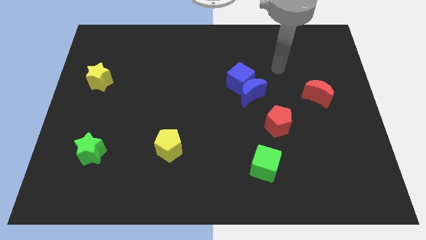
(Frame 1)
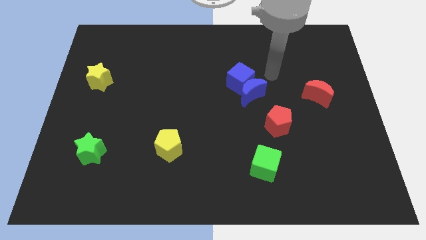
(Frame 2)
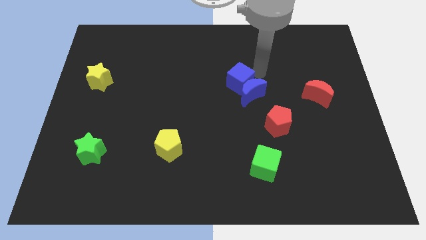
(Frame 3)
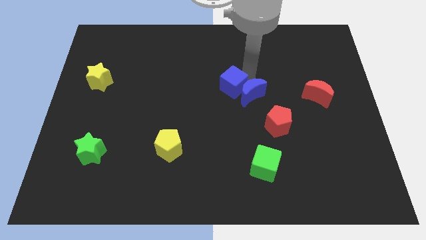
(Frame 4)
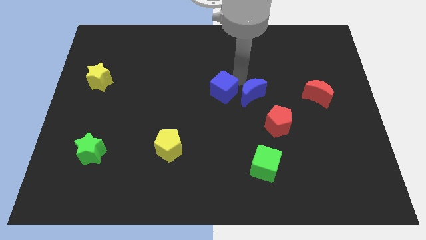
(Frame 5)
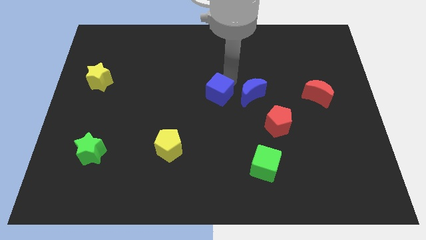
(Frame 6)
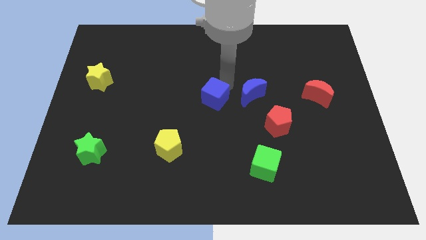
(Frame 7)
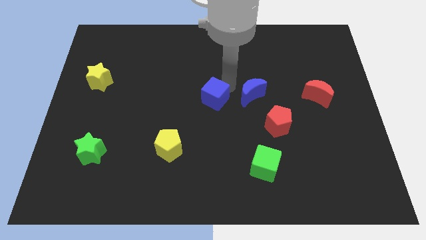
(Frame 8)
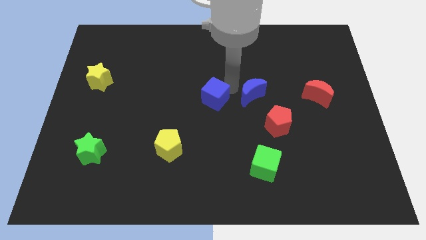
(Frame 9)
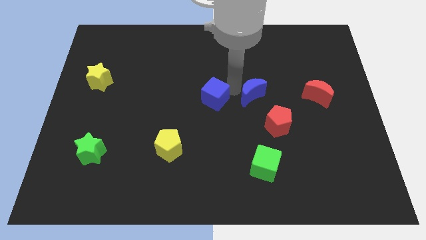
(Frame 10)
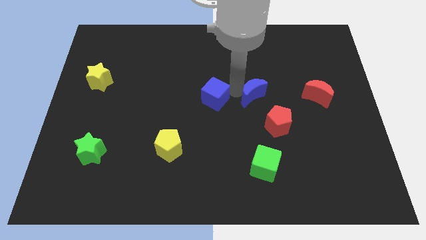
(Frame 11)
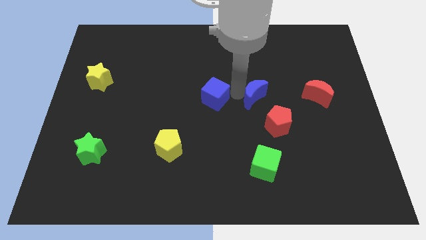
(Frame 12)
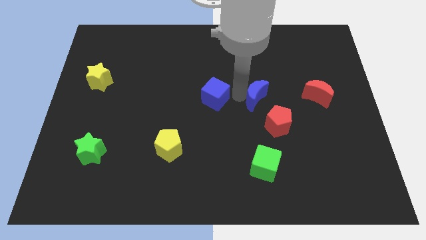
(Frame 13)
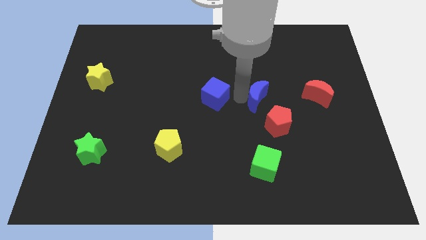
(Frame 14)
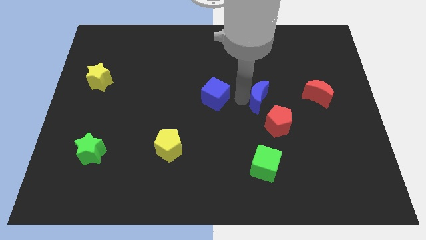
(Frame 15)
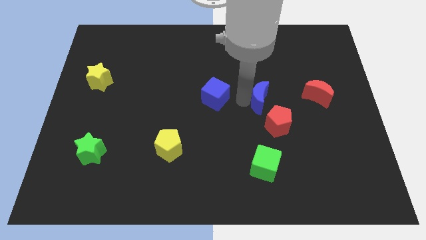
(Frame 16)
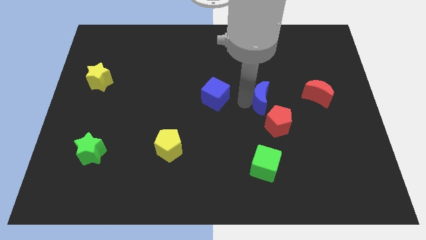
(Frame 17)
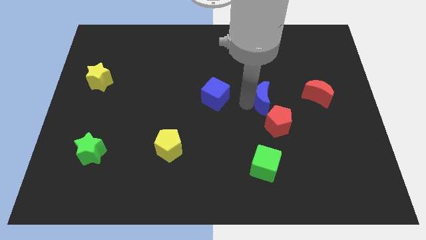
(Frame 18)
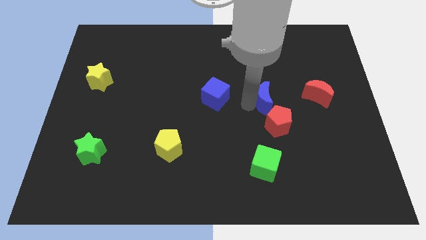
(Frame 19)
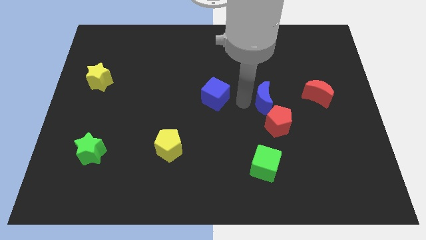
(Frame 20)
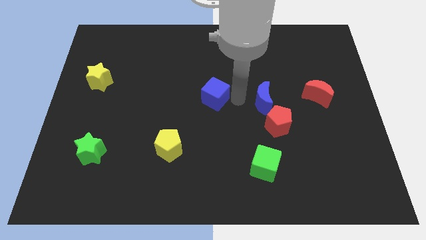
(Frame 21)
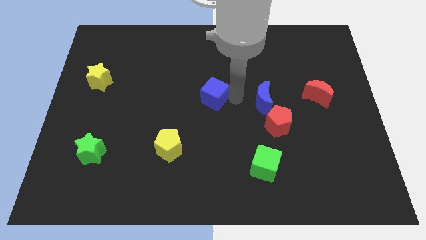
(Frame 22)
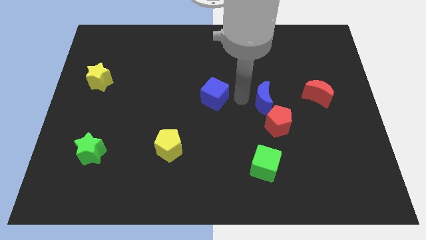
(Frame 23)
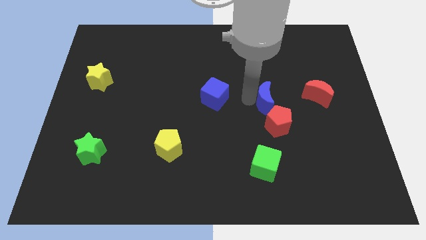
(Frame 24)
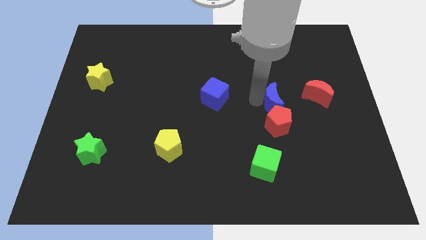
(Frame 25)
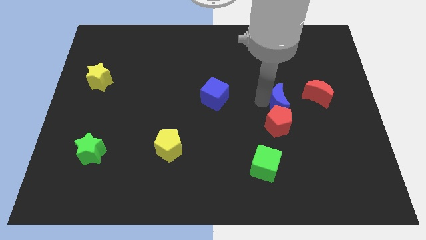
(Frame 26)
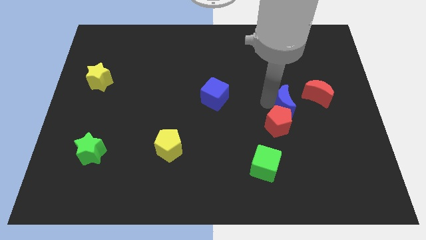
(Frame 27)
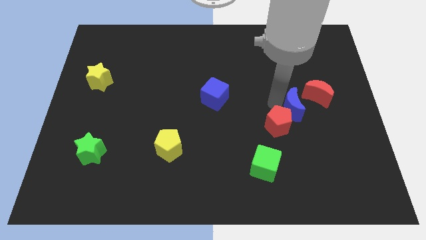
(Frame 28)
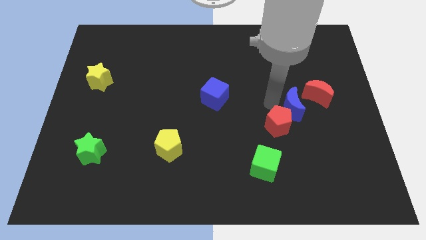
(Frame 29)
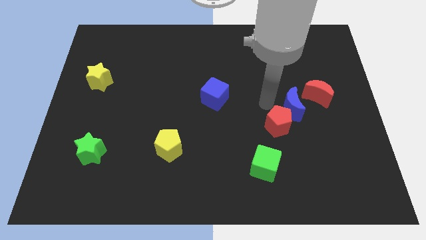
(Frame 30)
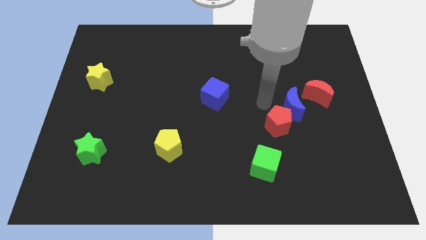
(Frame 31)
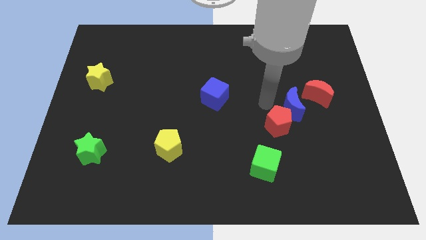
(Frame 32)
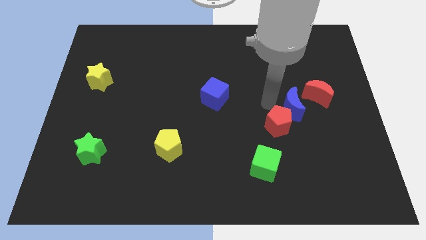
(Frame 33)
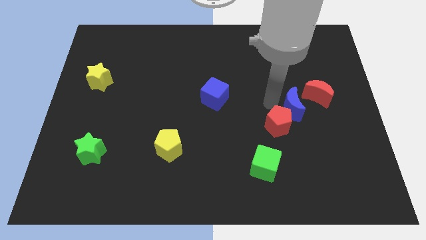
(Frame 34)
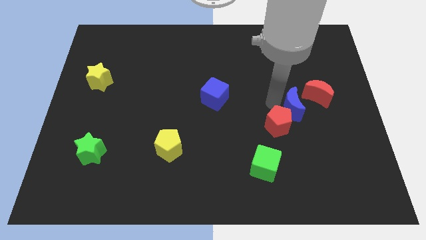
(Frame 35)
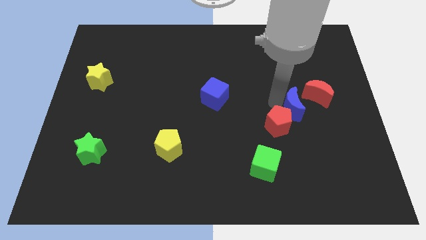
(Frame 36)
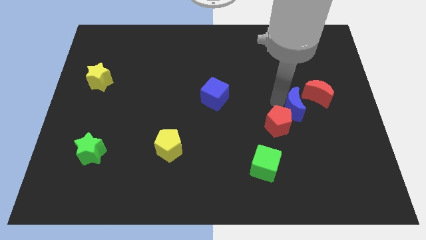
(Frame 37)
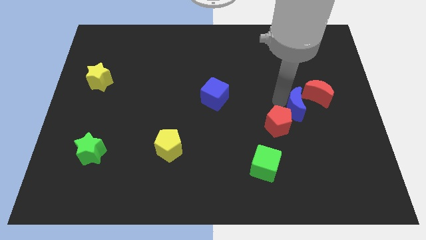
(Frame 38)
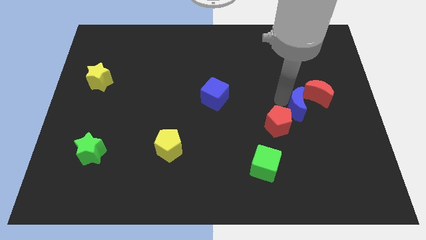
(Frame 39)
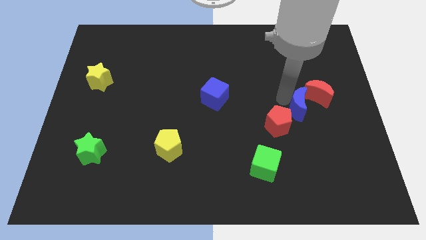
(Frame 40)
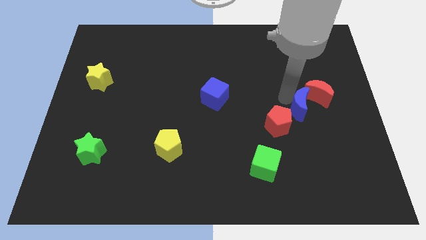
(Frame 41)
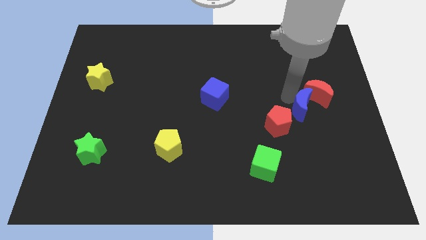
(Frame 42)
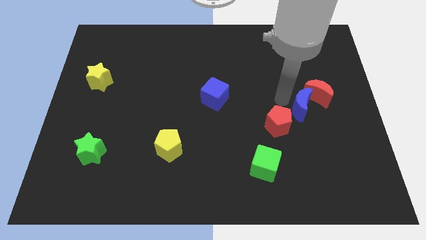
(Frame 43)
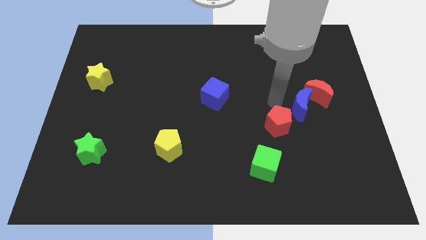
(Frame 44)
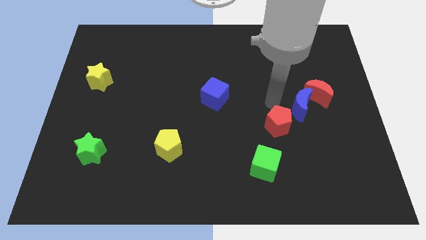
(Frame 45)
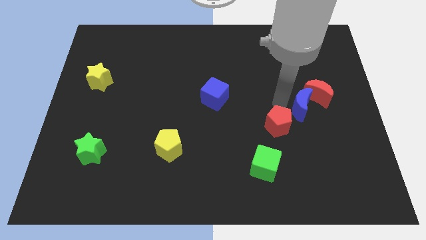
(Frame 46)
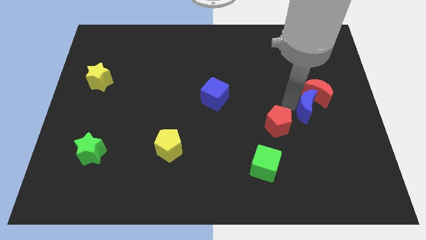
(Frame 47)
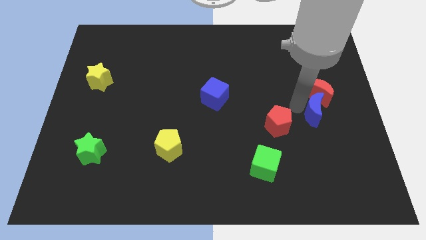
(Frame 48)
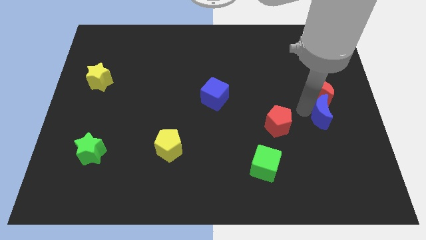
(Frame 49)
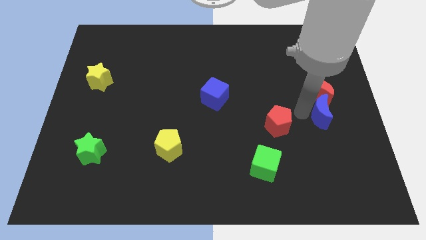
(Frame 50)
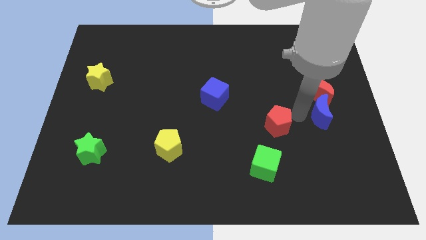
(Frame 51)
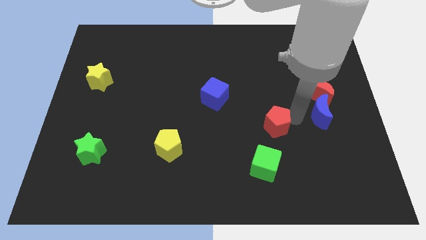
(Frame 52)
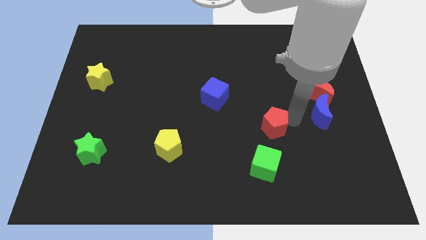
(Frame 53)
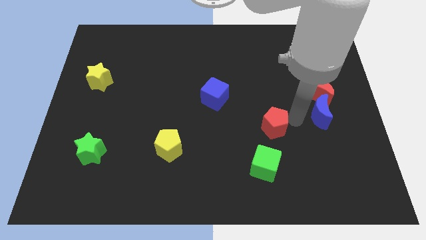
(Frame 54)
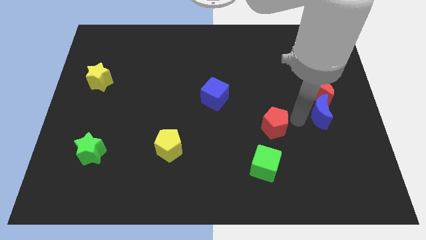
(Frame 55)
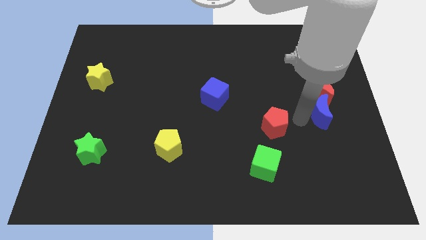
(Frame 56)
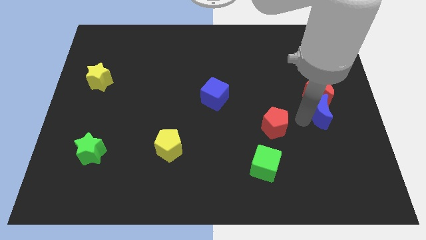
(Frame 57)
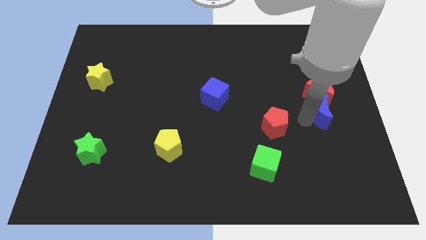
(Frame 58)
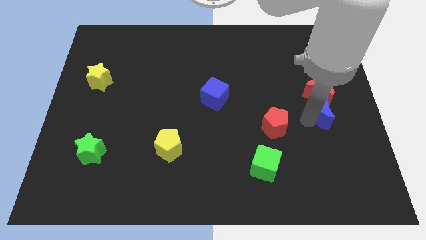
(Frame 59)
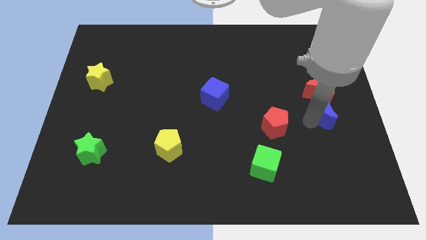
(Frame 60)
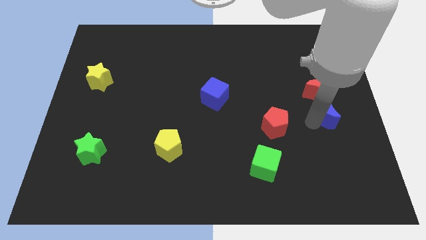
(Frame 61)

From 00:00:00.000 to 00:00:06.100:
slide the blue moon to the right side

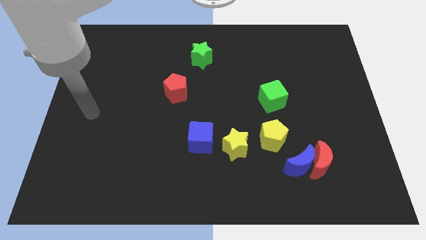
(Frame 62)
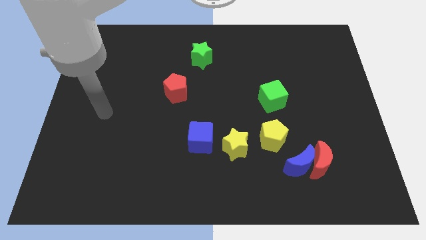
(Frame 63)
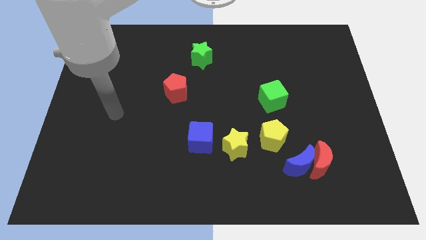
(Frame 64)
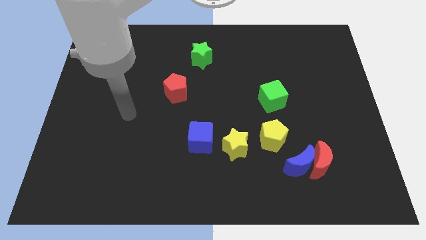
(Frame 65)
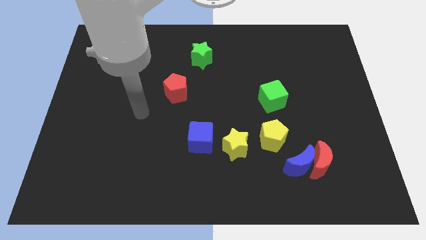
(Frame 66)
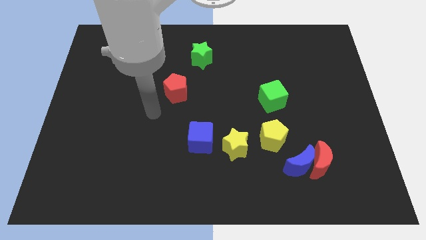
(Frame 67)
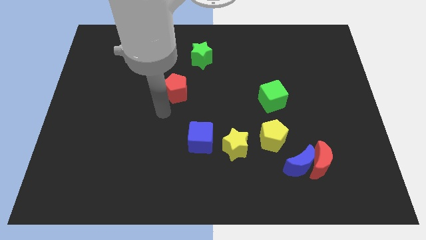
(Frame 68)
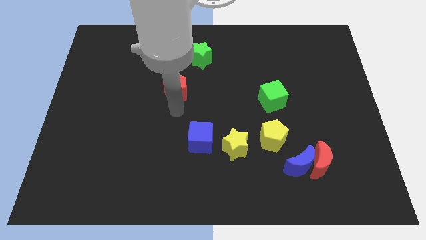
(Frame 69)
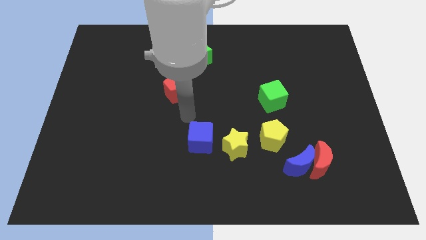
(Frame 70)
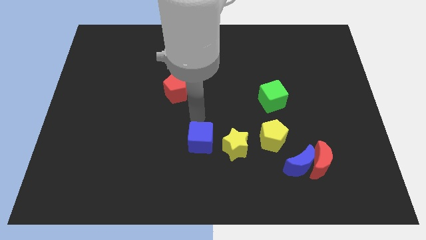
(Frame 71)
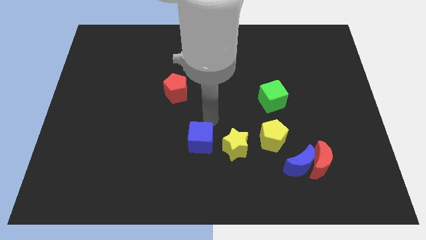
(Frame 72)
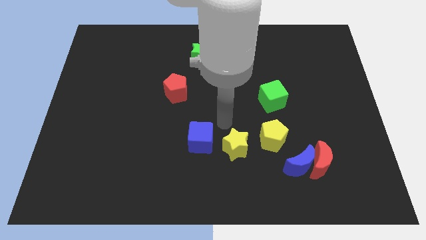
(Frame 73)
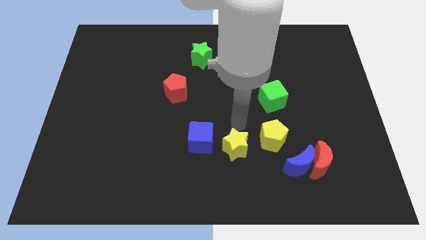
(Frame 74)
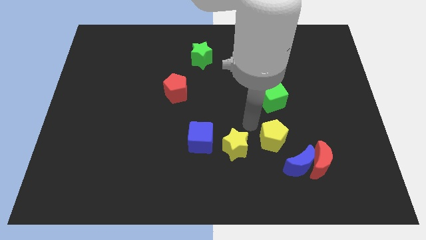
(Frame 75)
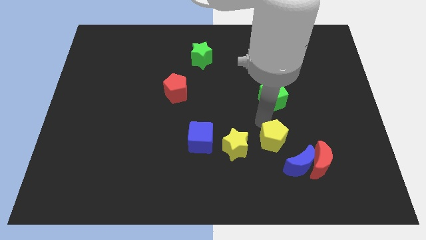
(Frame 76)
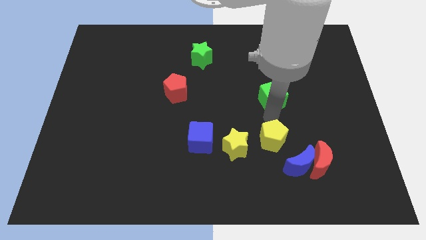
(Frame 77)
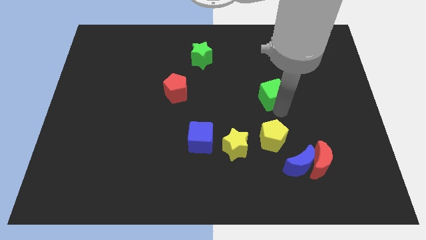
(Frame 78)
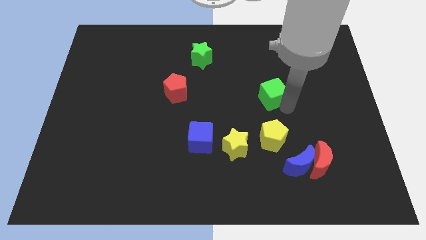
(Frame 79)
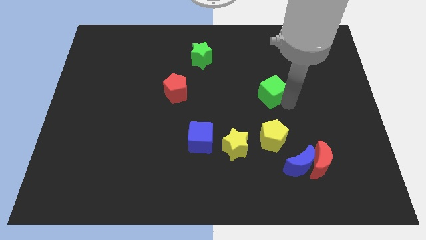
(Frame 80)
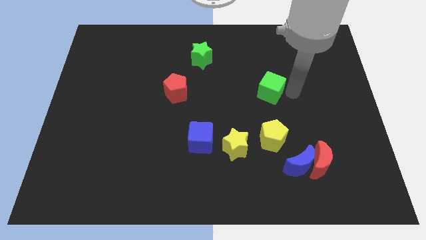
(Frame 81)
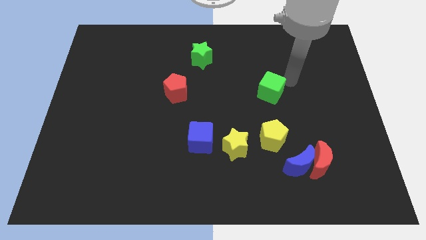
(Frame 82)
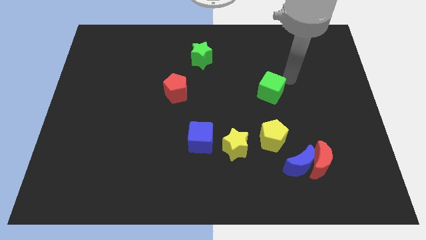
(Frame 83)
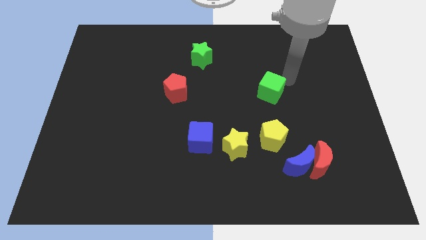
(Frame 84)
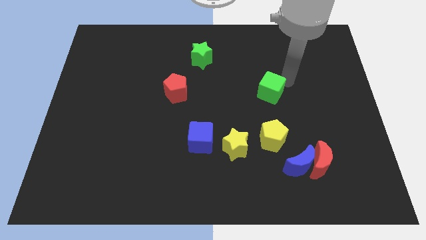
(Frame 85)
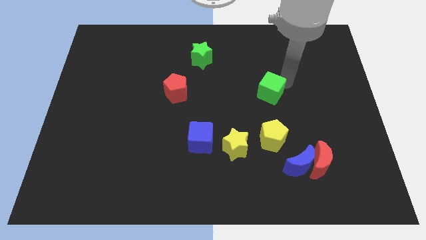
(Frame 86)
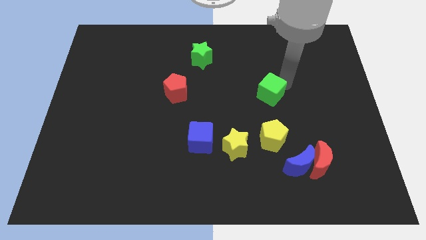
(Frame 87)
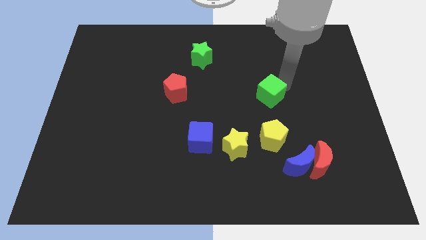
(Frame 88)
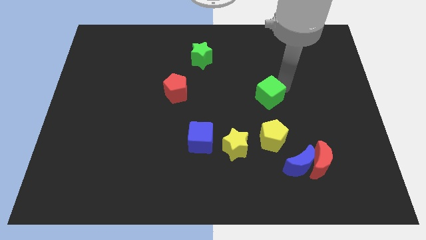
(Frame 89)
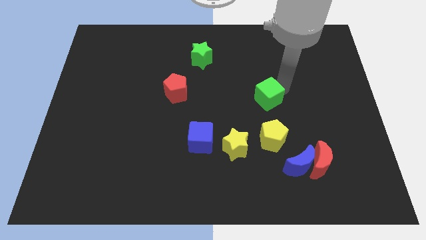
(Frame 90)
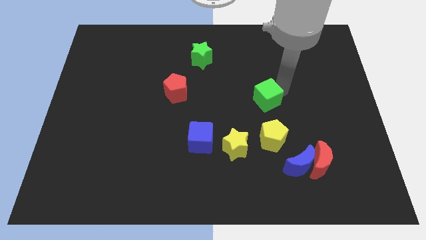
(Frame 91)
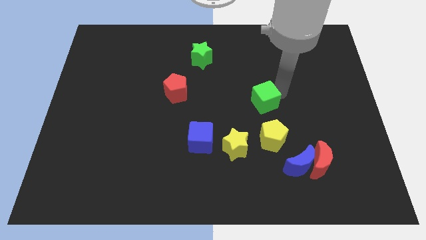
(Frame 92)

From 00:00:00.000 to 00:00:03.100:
move the green cube to the center
